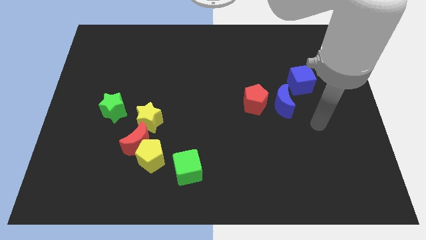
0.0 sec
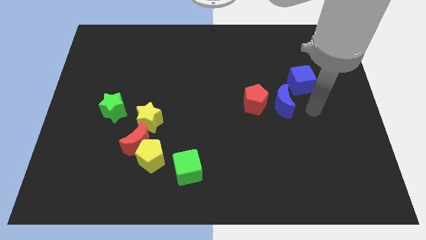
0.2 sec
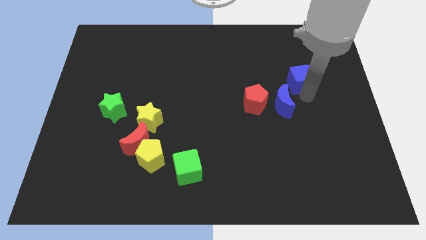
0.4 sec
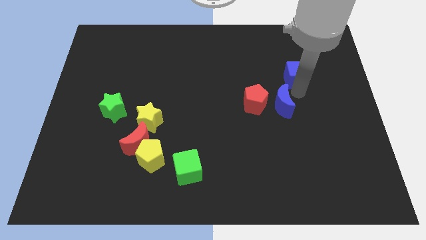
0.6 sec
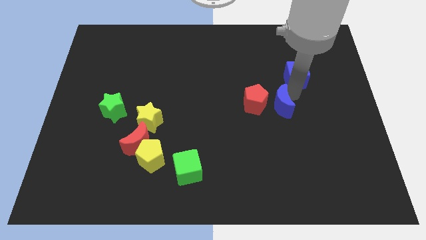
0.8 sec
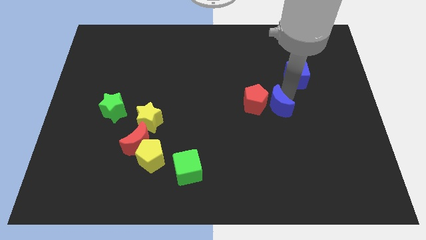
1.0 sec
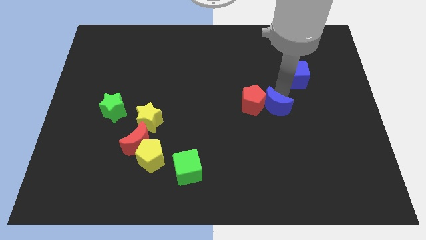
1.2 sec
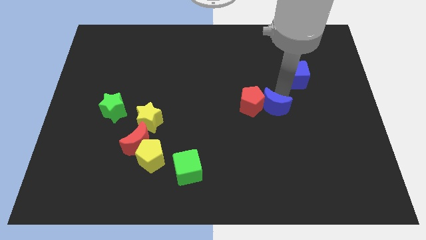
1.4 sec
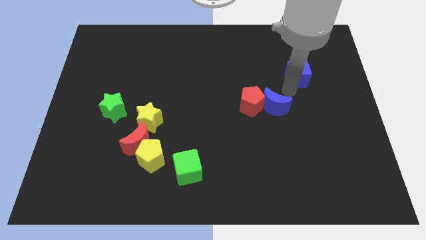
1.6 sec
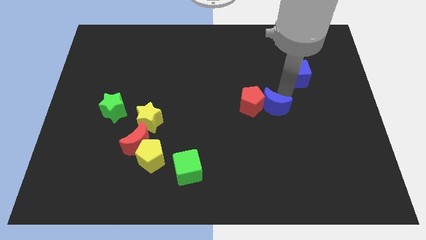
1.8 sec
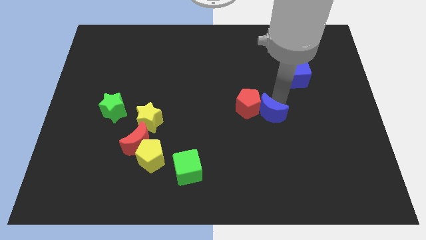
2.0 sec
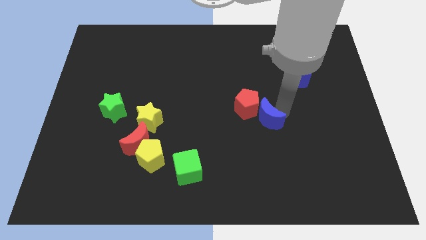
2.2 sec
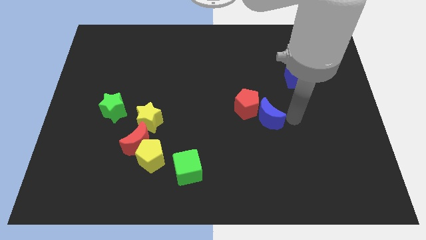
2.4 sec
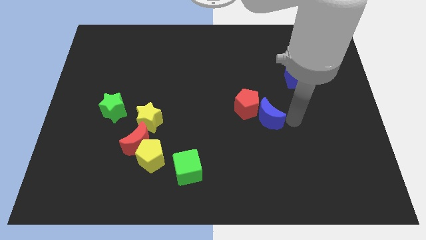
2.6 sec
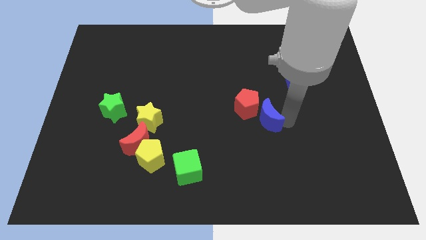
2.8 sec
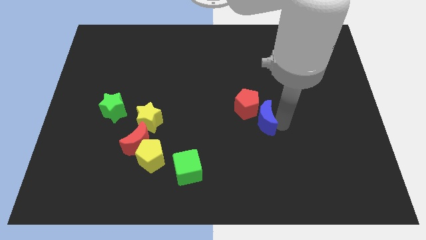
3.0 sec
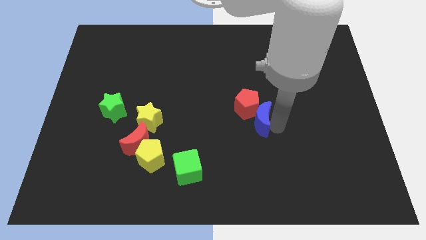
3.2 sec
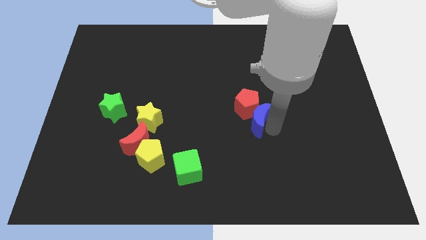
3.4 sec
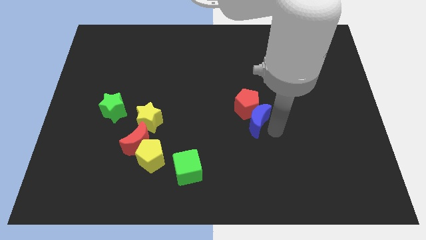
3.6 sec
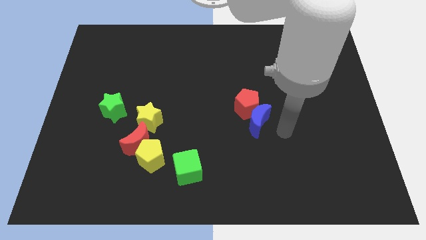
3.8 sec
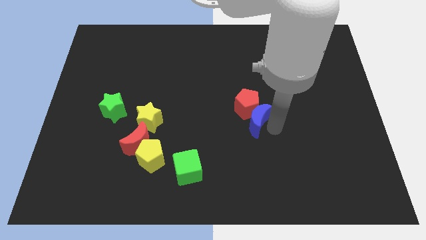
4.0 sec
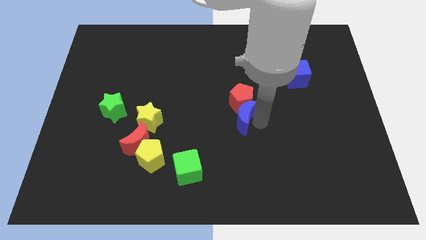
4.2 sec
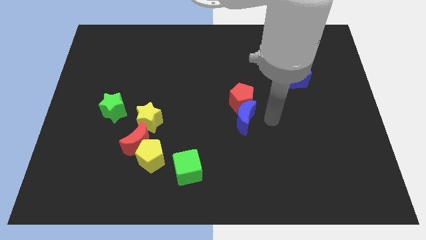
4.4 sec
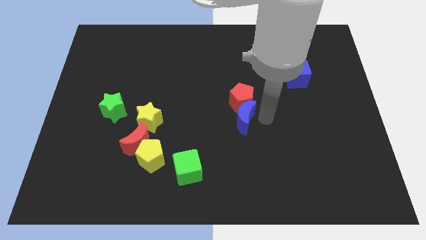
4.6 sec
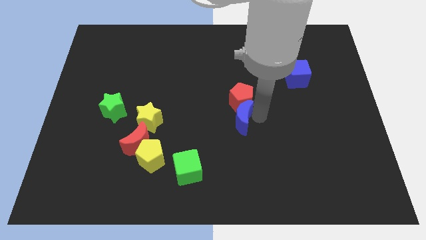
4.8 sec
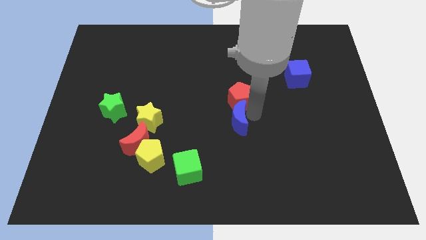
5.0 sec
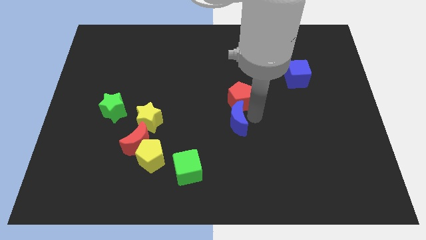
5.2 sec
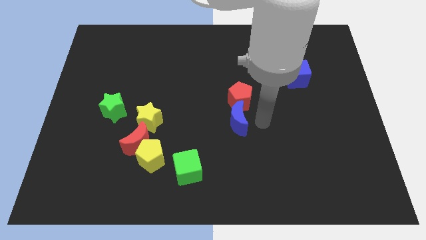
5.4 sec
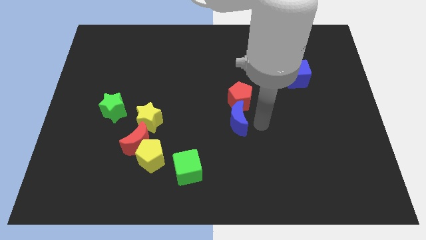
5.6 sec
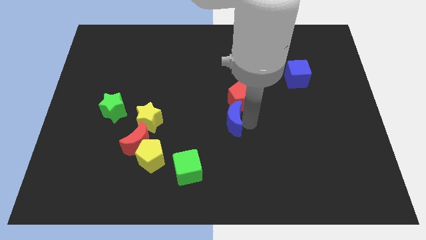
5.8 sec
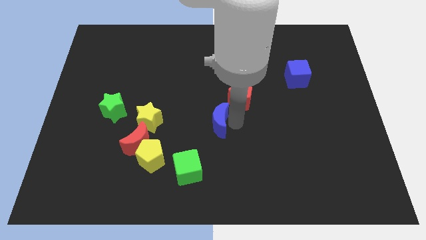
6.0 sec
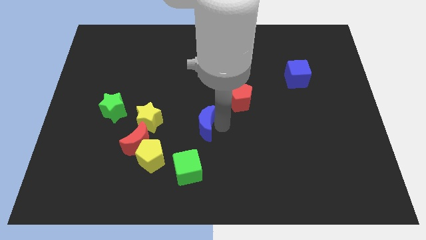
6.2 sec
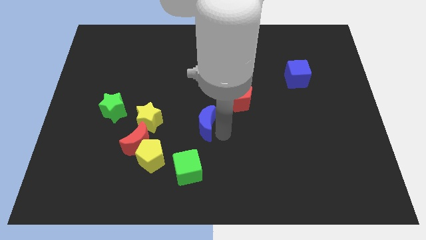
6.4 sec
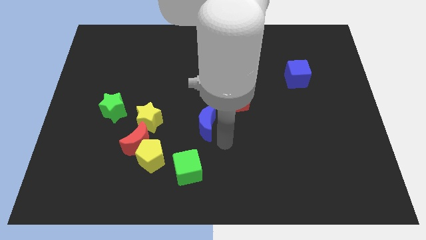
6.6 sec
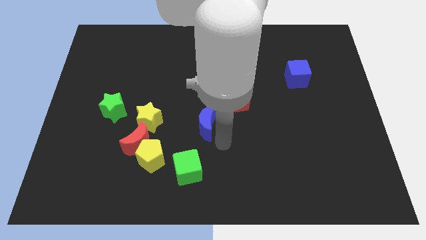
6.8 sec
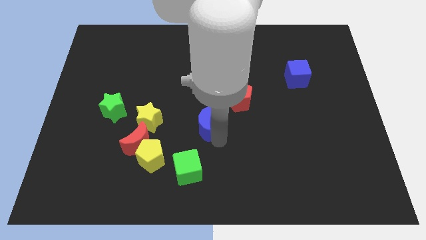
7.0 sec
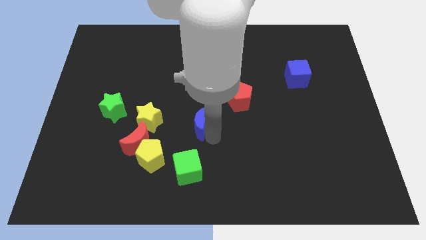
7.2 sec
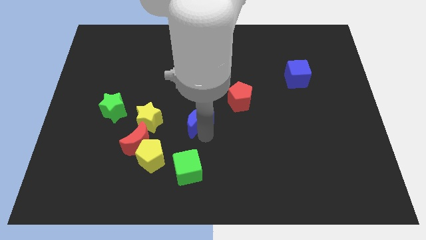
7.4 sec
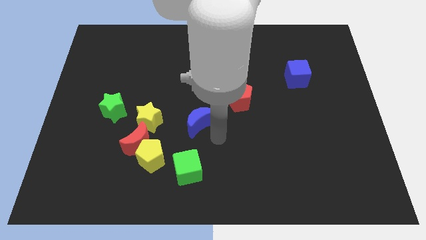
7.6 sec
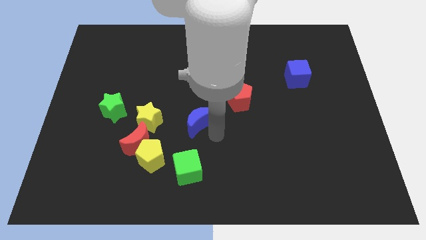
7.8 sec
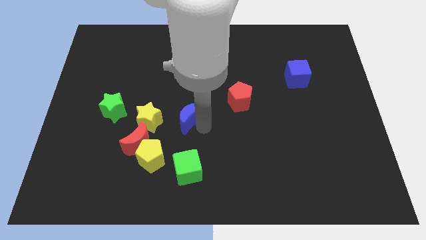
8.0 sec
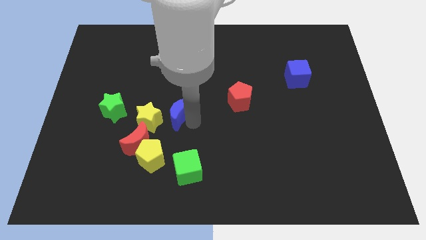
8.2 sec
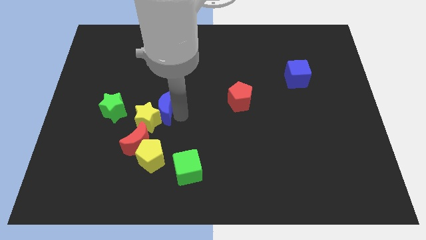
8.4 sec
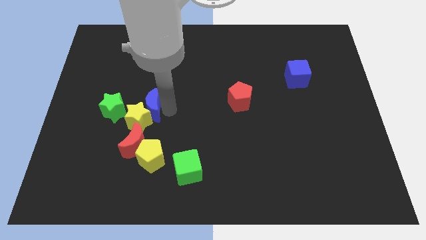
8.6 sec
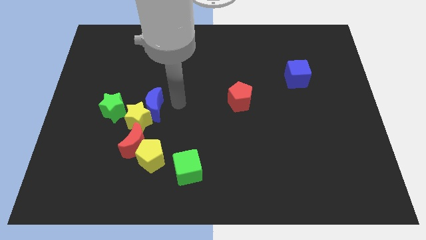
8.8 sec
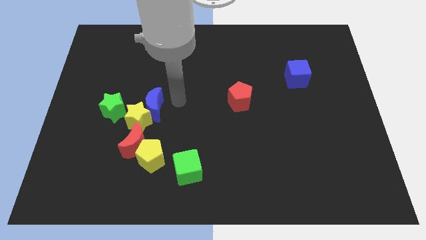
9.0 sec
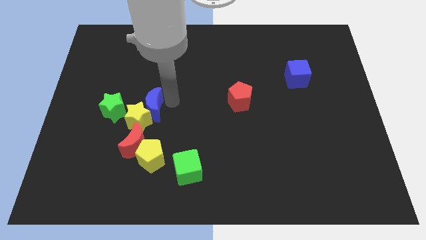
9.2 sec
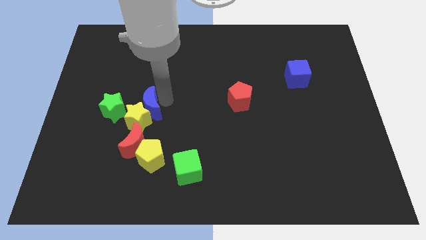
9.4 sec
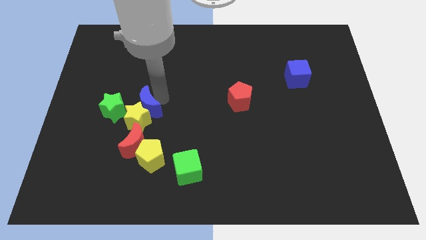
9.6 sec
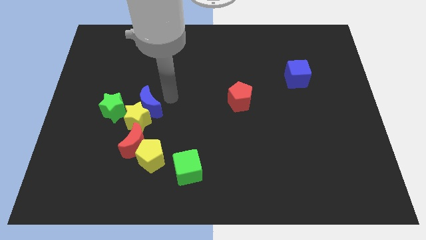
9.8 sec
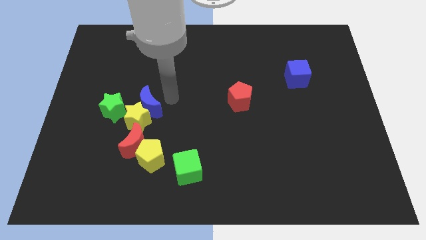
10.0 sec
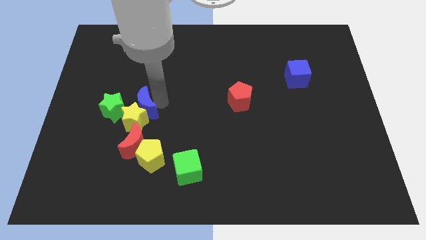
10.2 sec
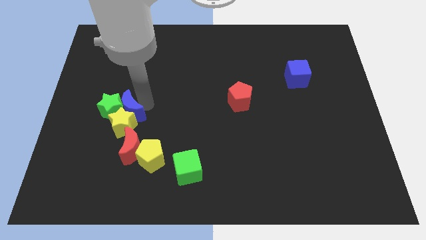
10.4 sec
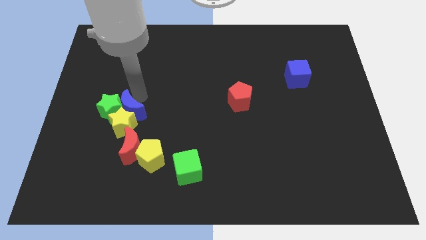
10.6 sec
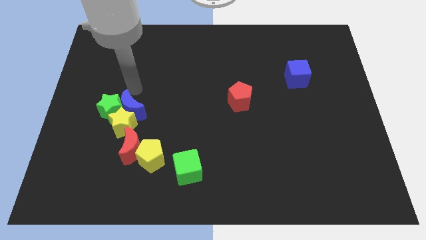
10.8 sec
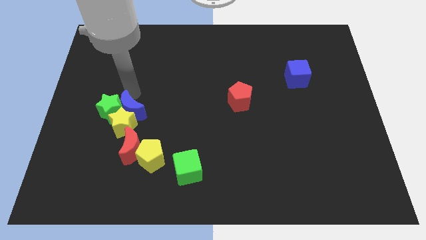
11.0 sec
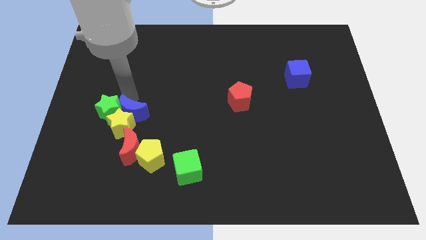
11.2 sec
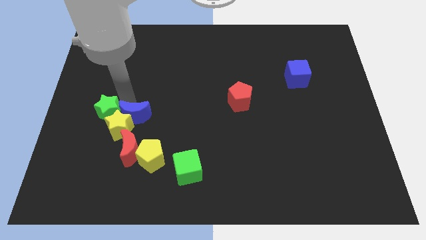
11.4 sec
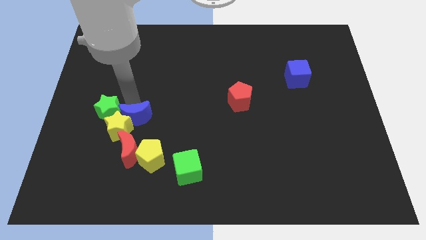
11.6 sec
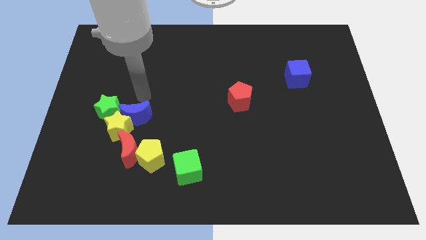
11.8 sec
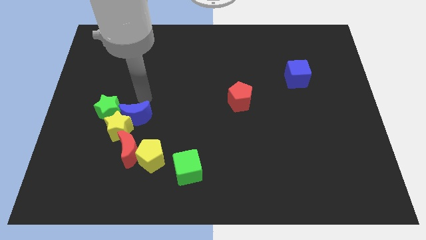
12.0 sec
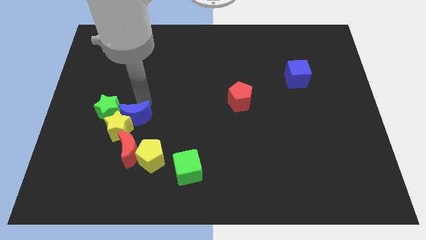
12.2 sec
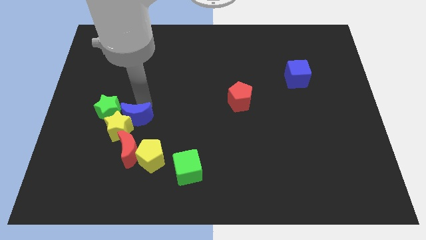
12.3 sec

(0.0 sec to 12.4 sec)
push the blue moon diagonally up and to the left of the yellow pentagon

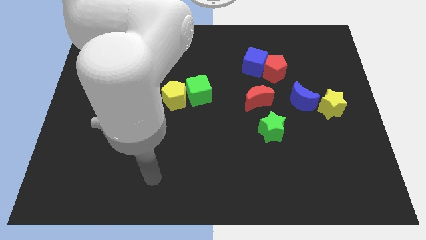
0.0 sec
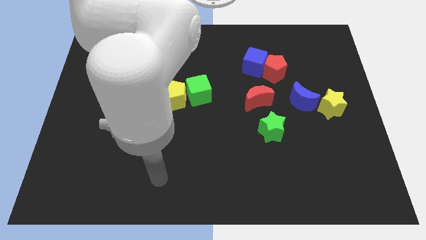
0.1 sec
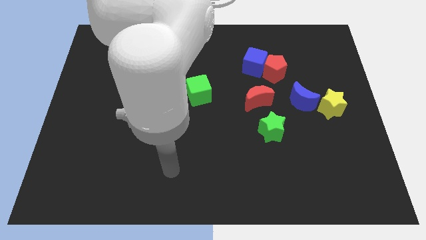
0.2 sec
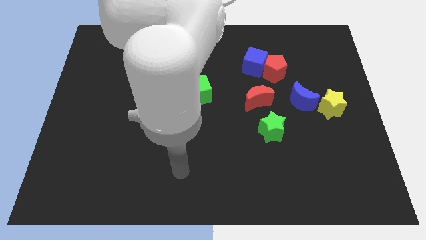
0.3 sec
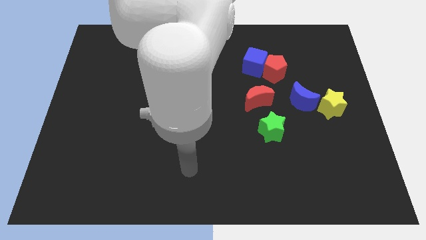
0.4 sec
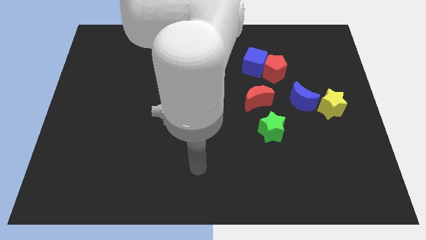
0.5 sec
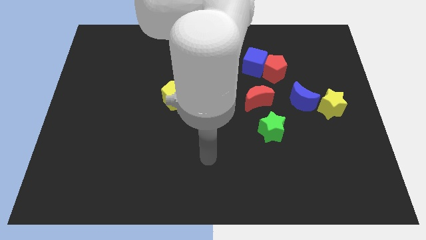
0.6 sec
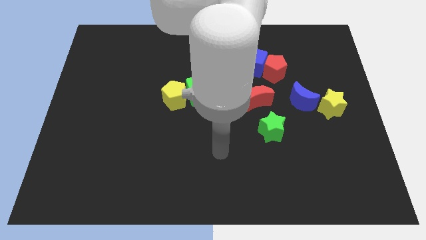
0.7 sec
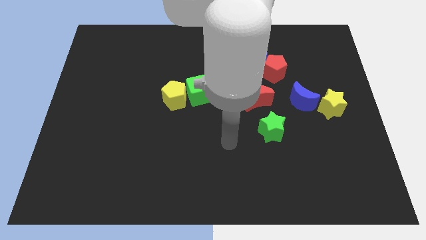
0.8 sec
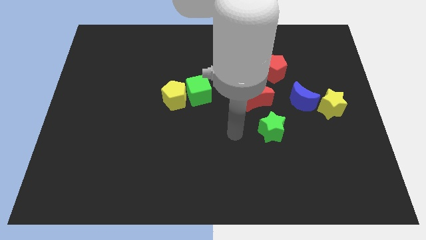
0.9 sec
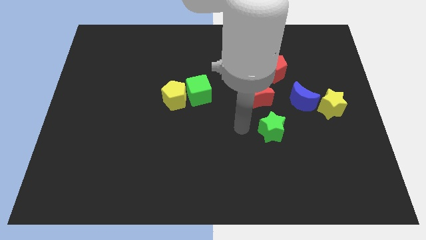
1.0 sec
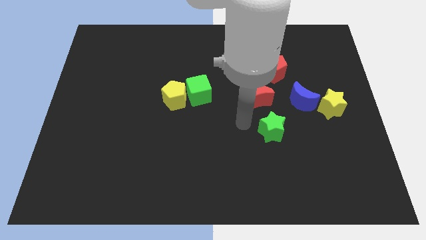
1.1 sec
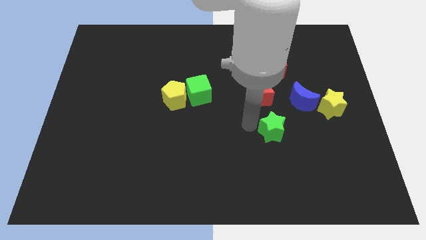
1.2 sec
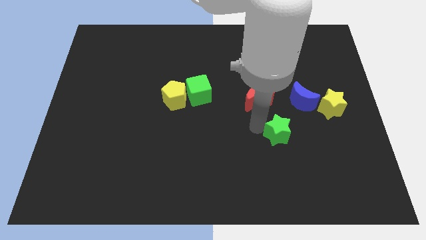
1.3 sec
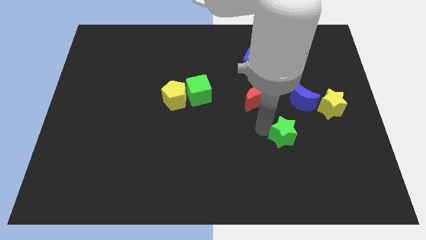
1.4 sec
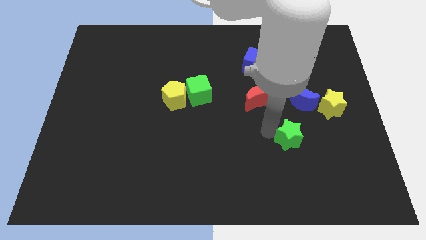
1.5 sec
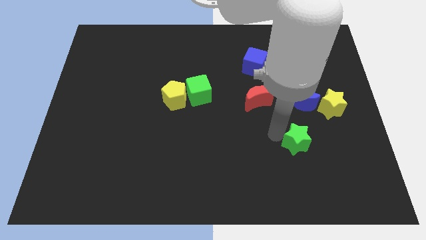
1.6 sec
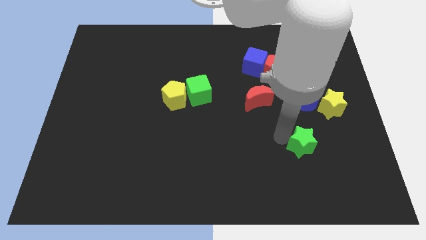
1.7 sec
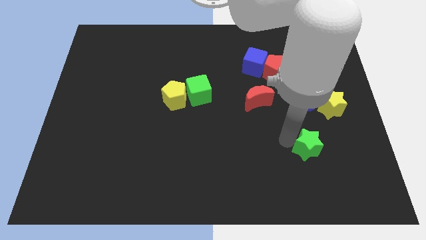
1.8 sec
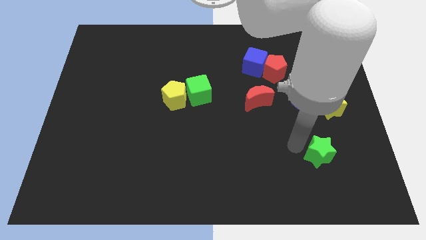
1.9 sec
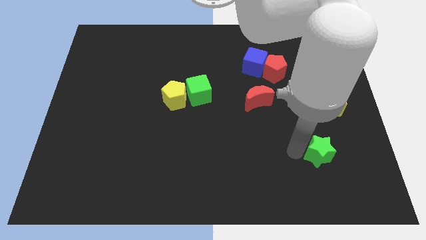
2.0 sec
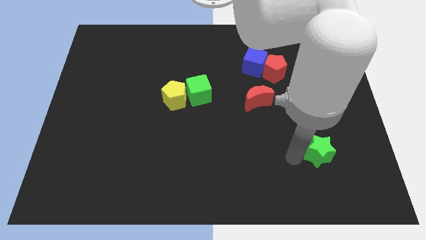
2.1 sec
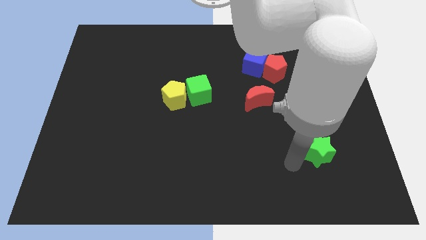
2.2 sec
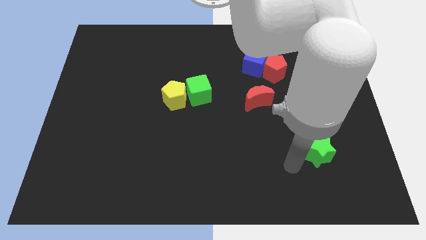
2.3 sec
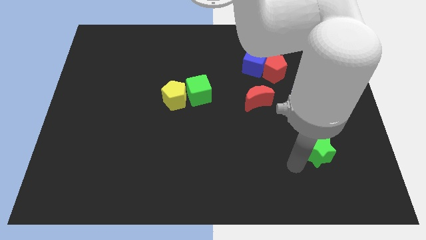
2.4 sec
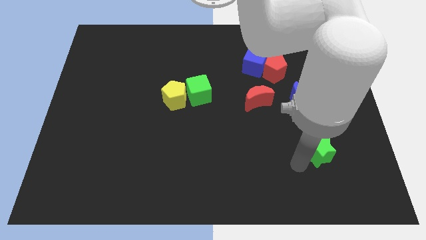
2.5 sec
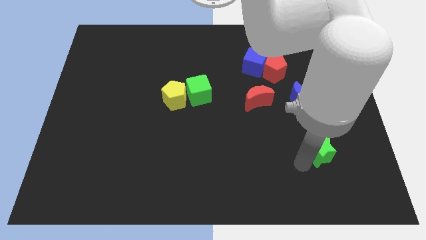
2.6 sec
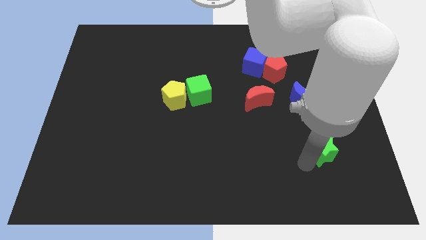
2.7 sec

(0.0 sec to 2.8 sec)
move the green star to the bottom of the yellow star
